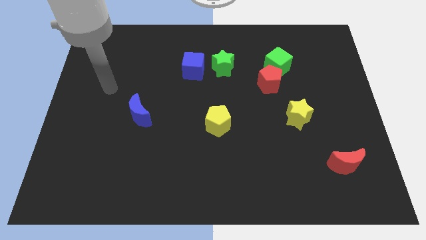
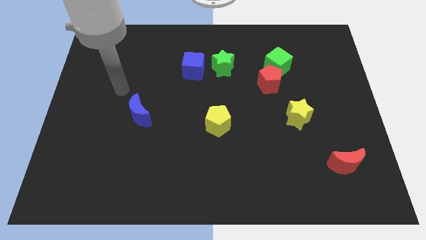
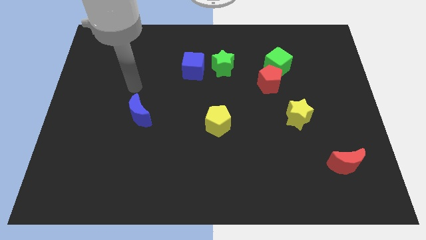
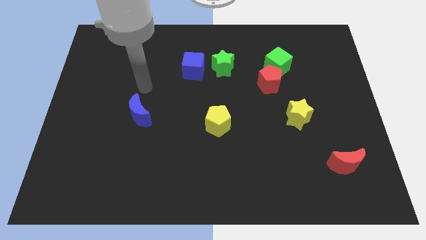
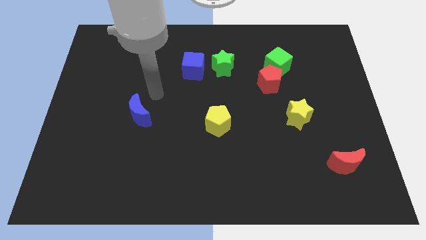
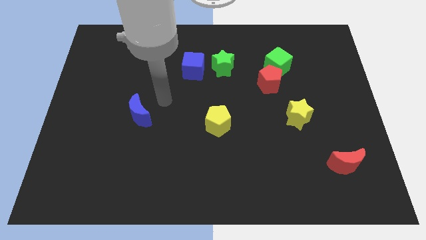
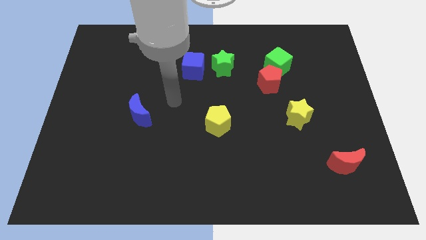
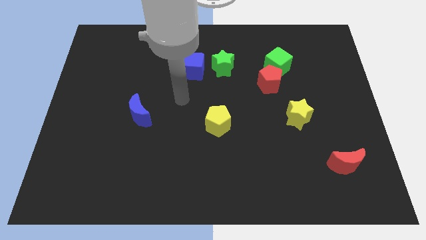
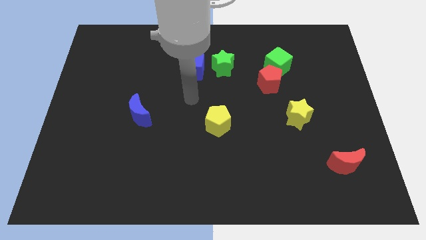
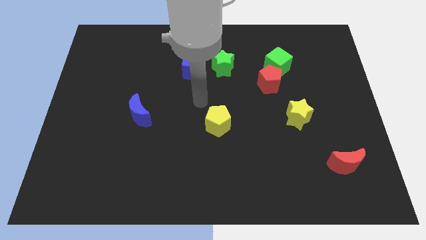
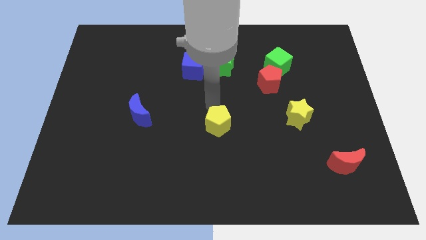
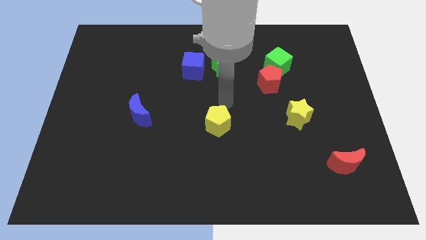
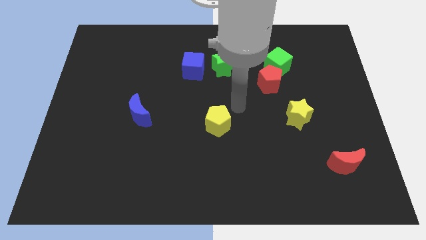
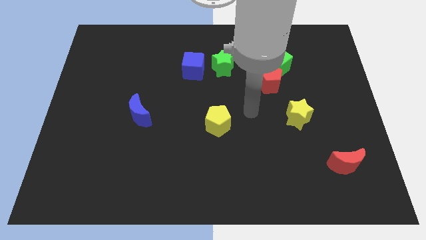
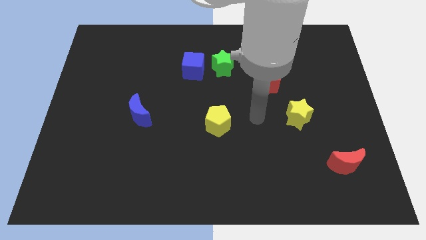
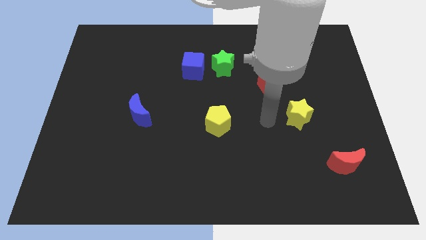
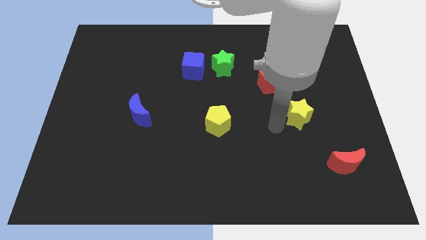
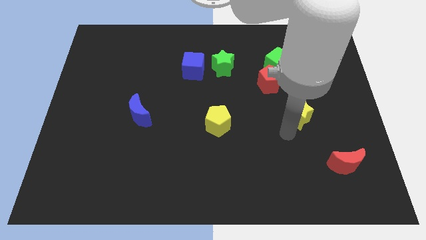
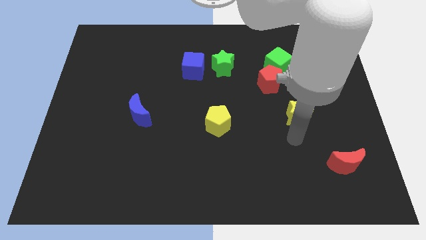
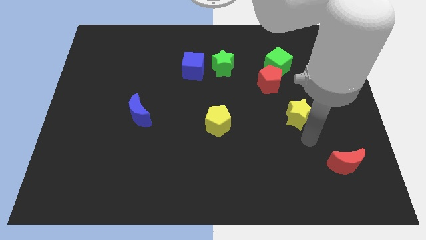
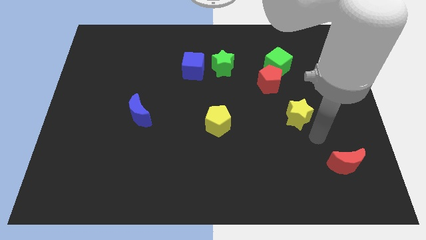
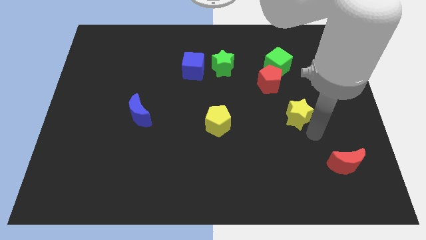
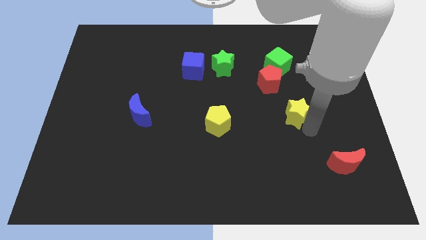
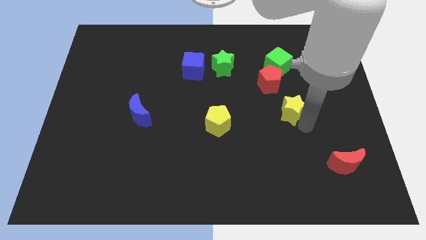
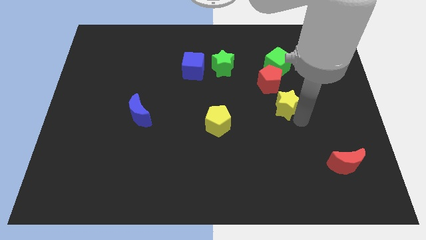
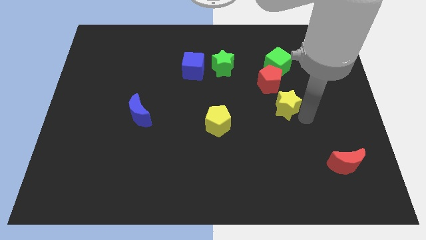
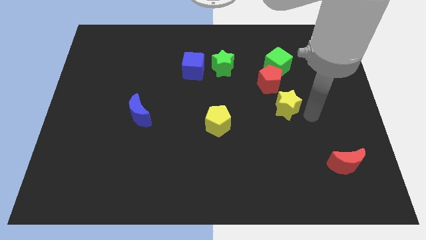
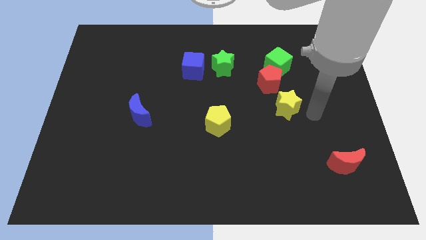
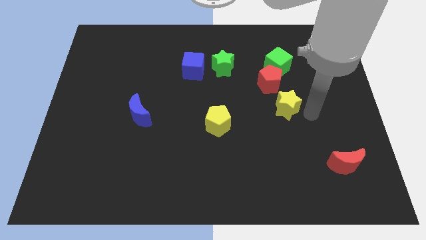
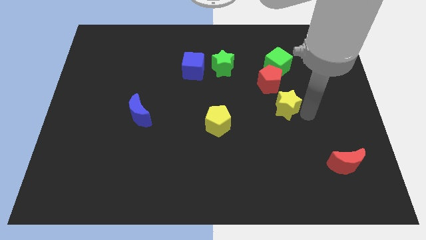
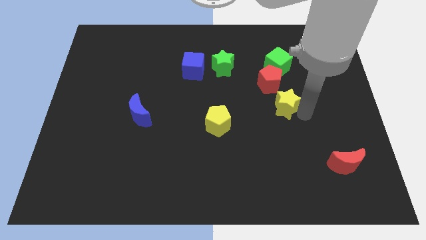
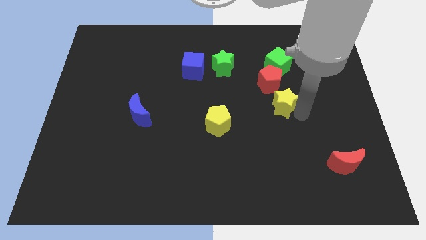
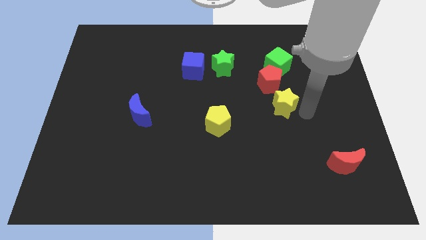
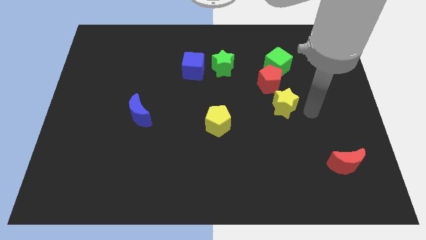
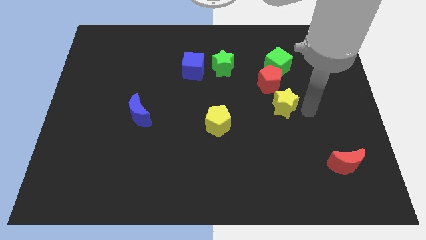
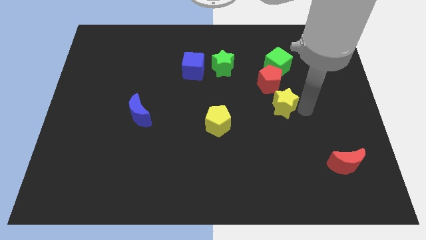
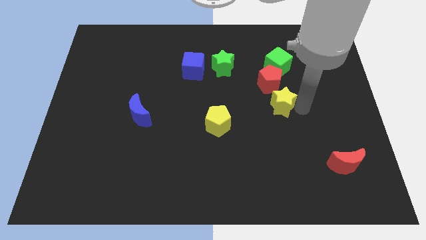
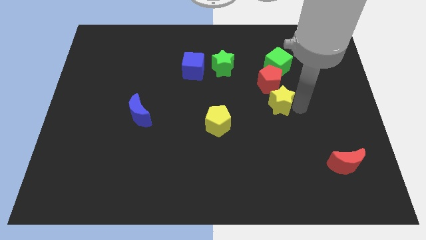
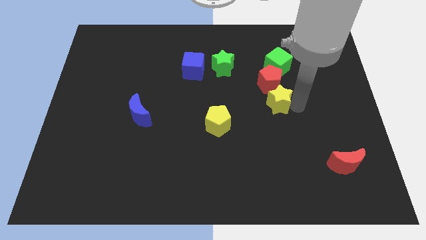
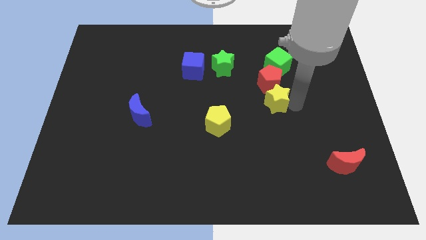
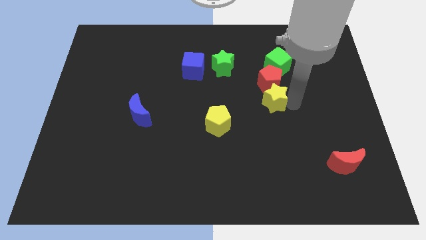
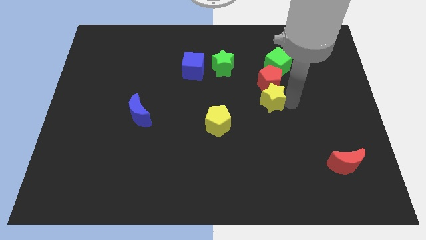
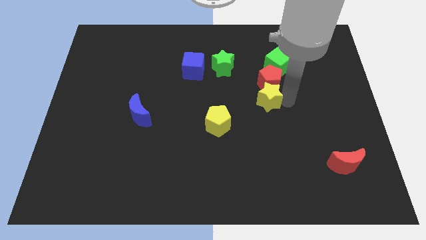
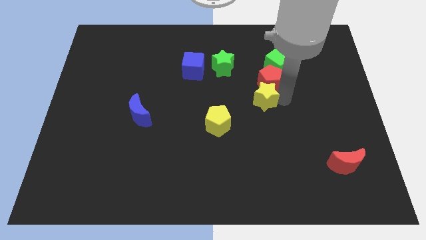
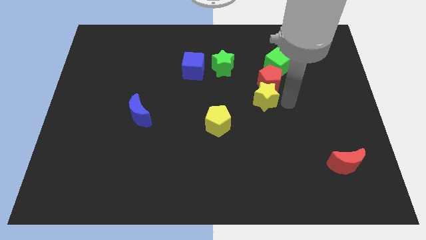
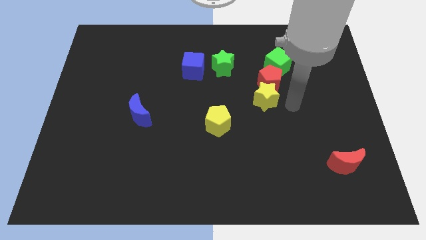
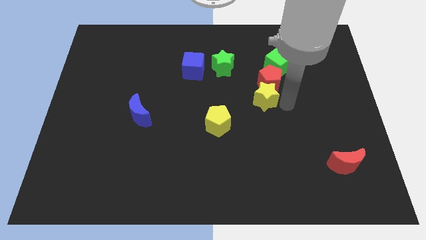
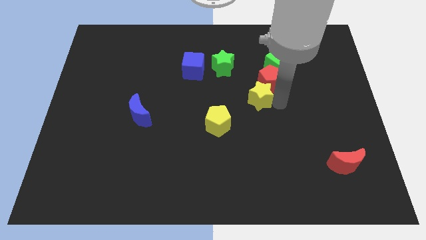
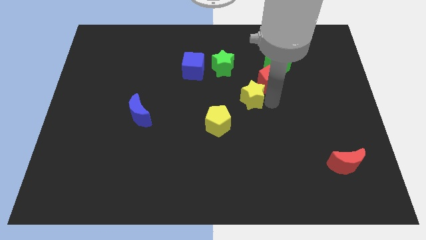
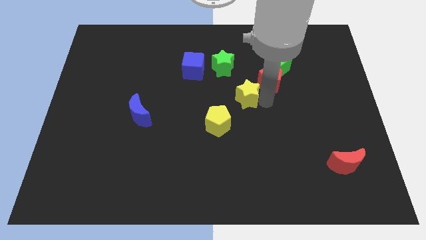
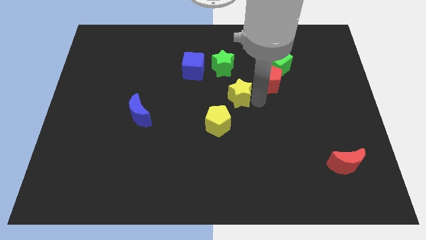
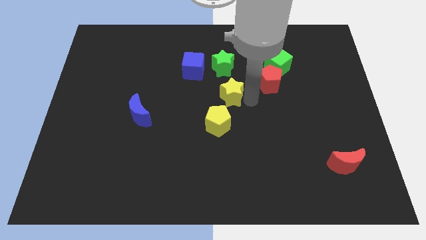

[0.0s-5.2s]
push the yellow star to the top of the yellow pentagon

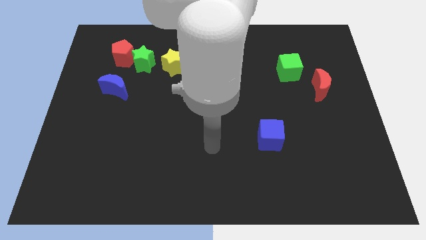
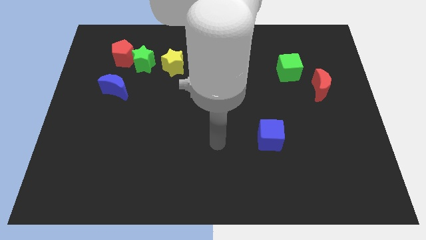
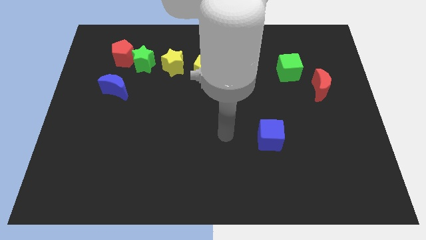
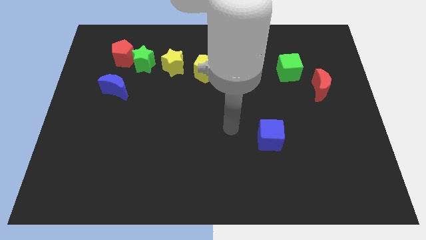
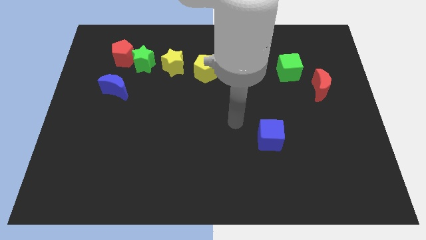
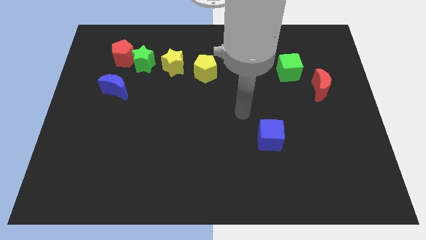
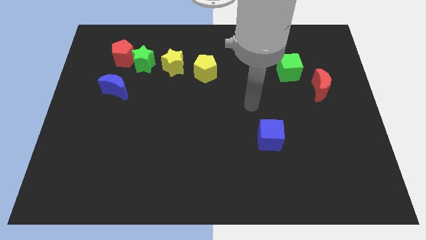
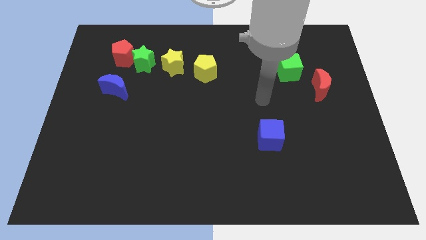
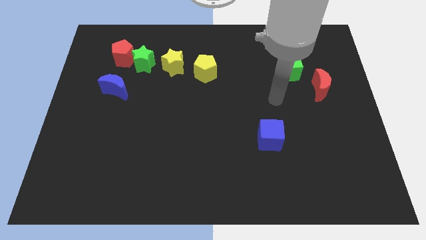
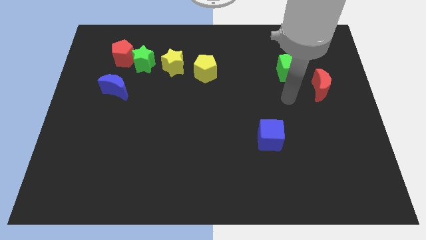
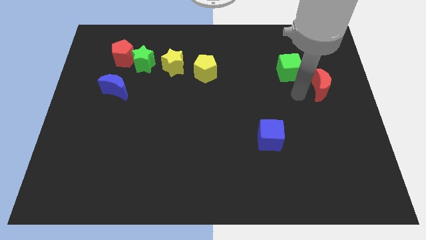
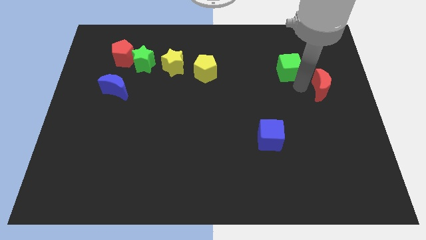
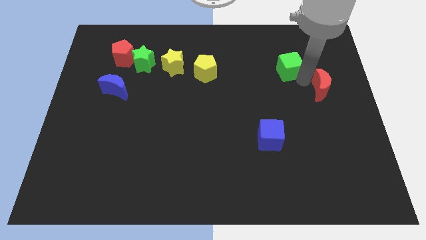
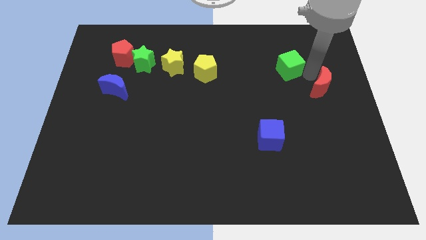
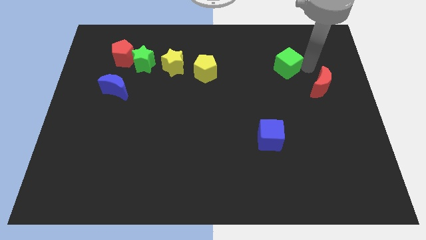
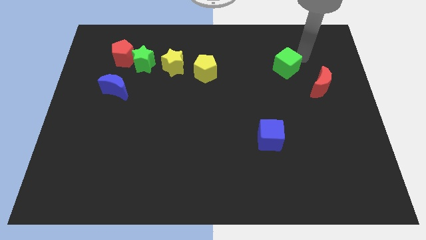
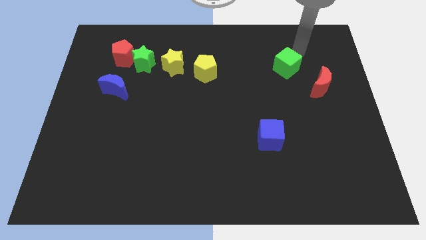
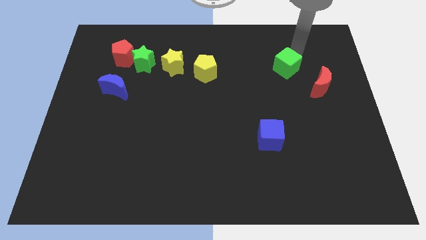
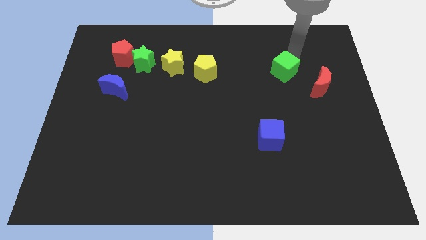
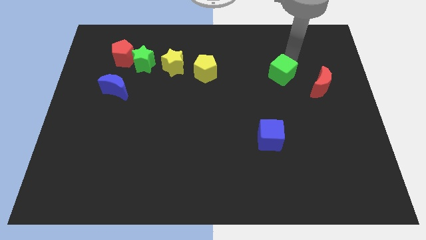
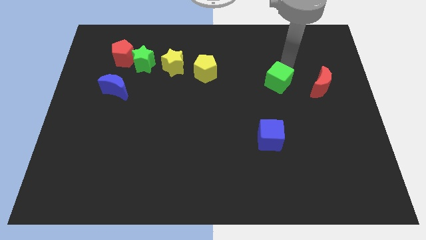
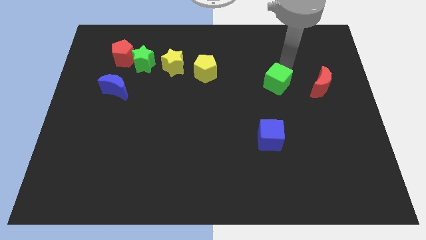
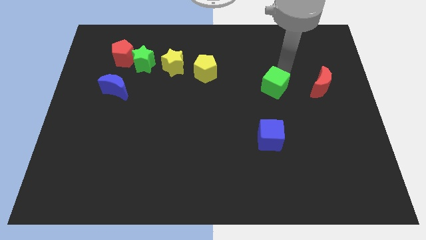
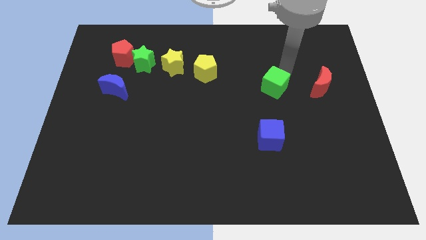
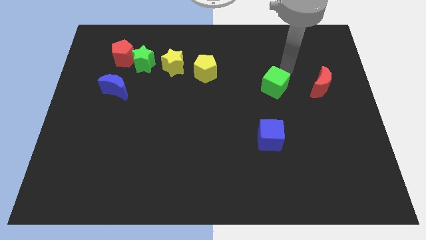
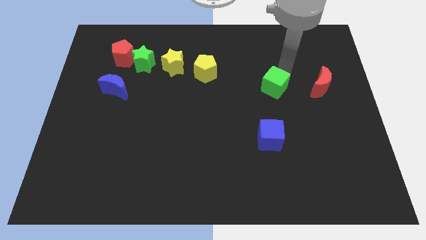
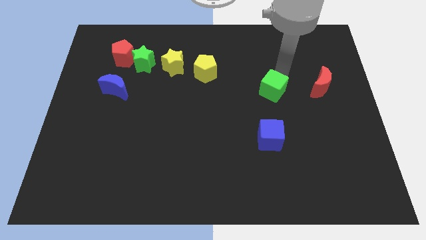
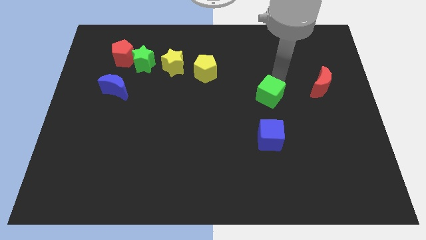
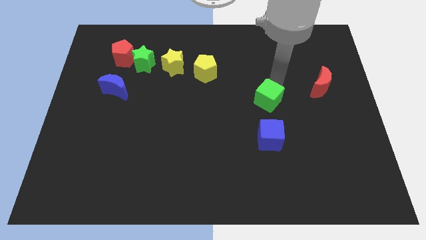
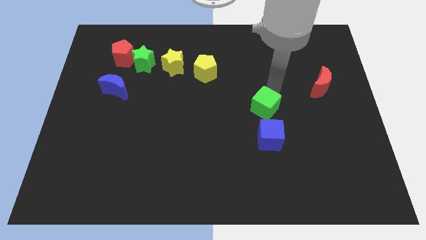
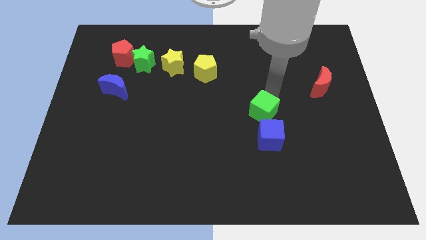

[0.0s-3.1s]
slide the green cube to the top left of the blue cube
